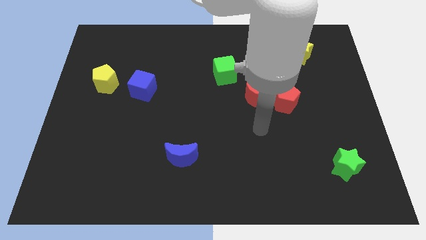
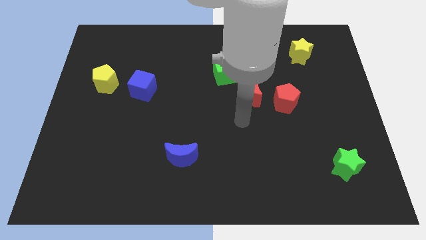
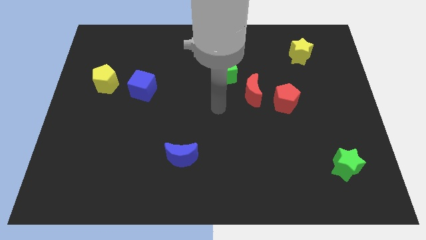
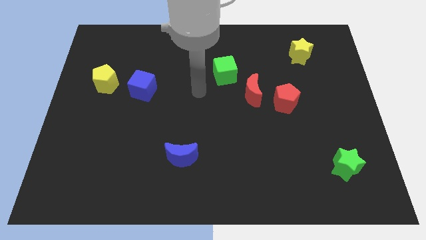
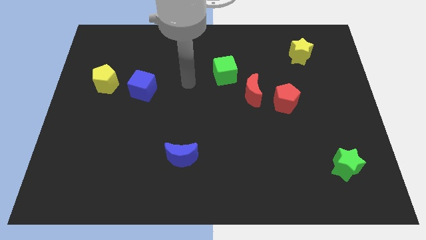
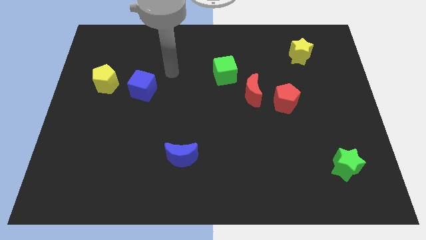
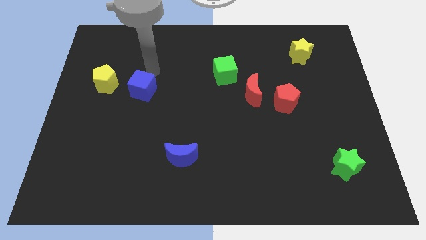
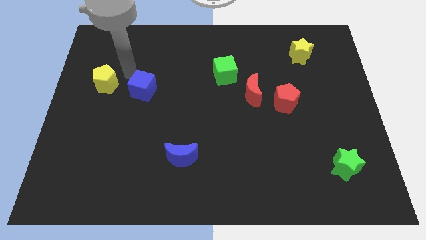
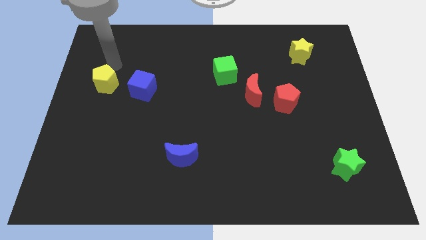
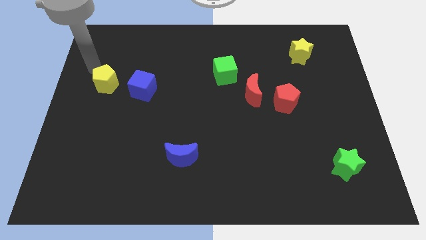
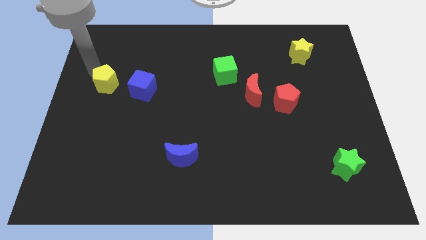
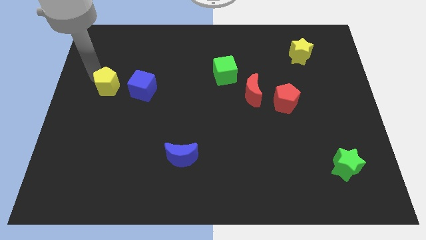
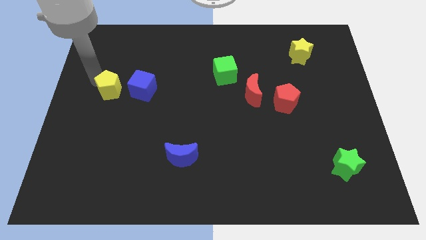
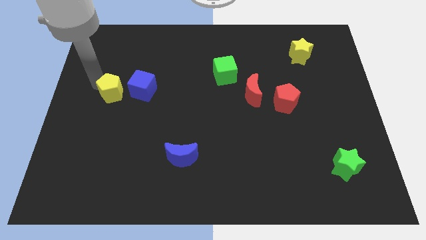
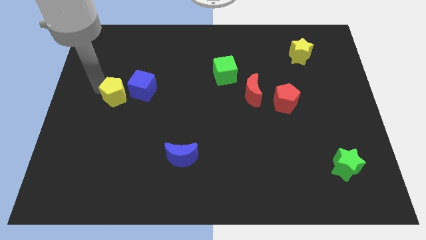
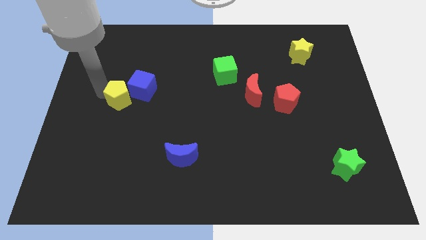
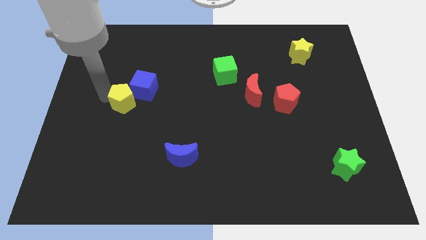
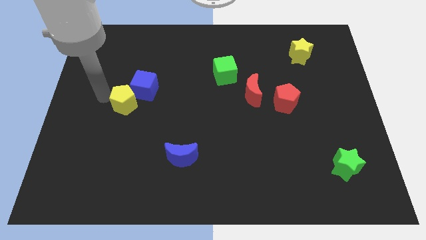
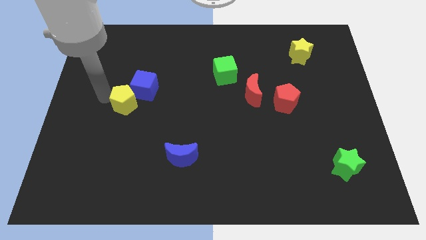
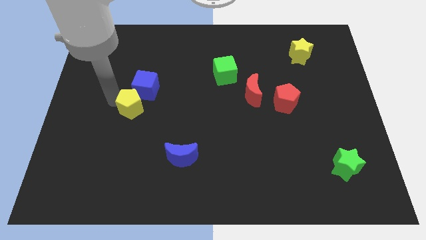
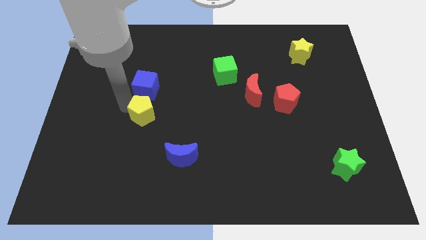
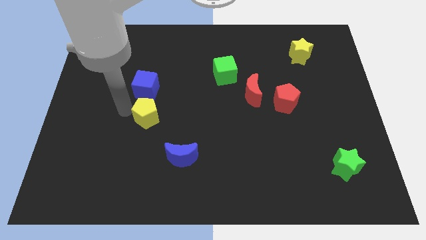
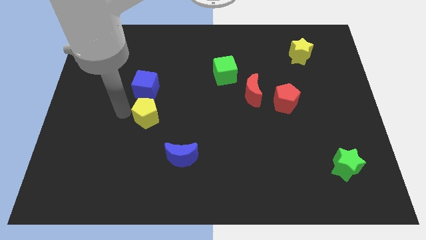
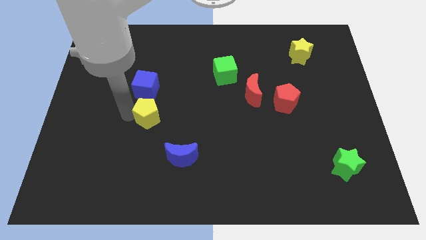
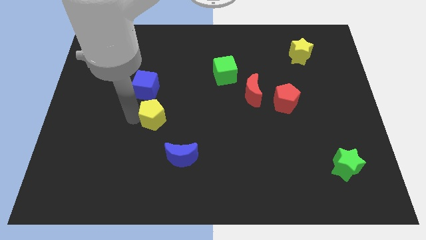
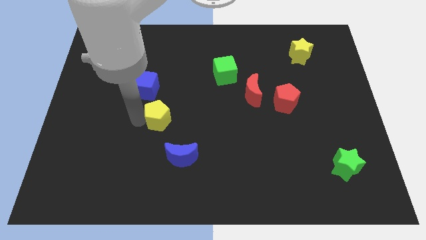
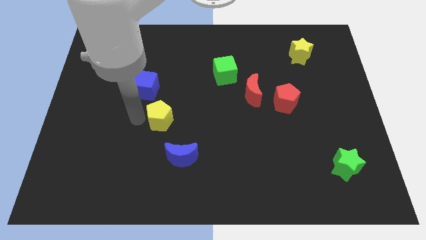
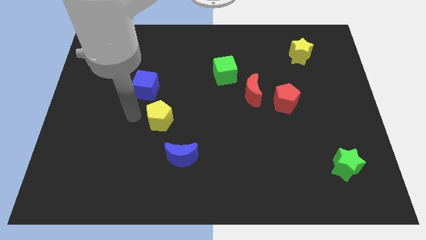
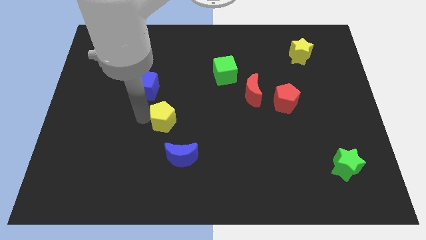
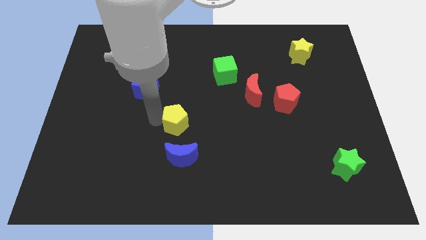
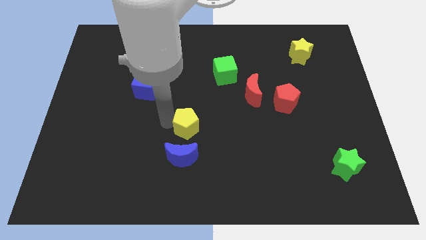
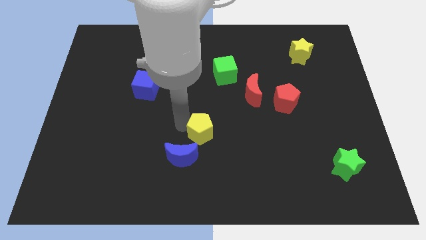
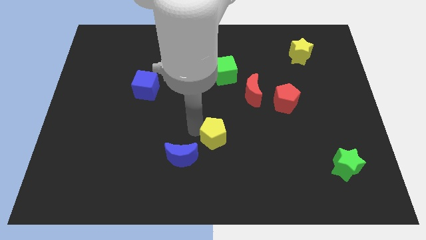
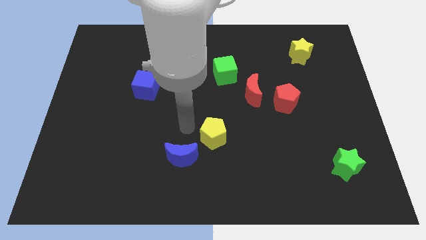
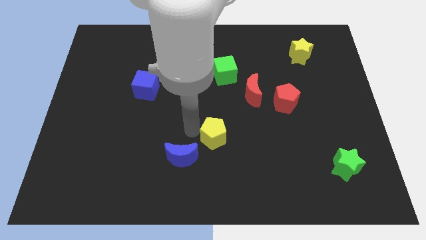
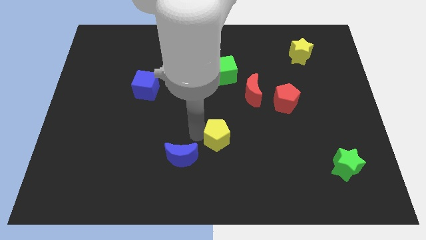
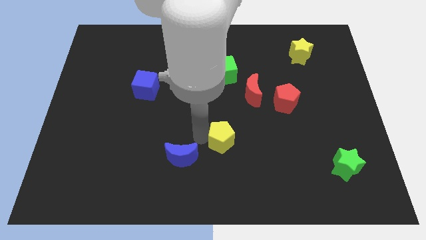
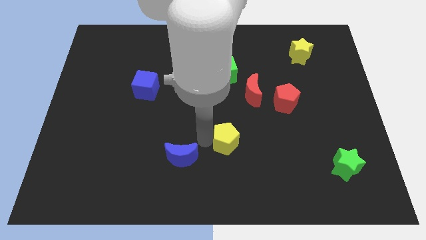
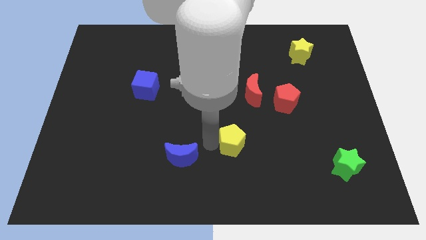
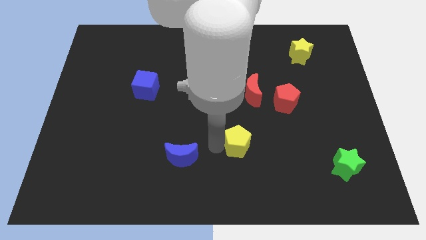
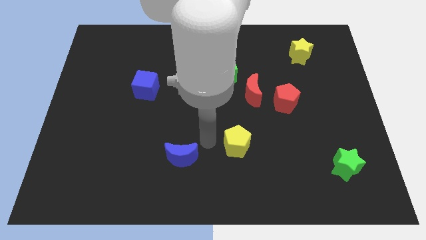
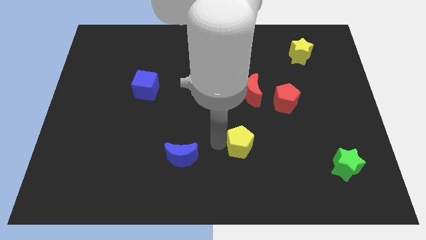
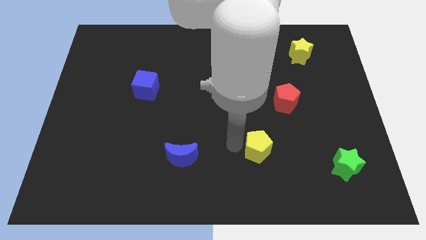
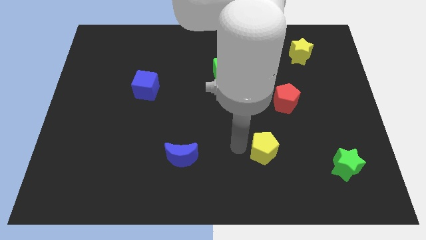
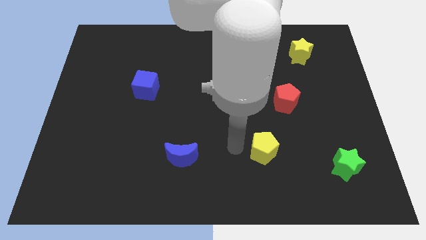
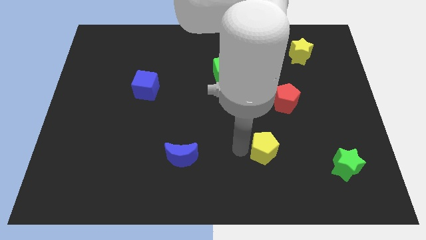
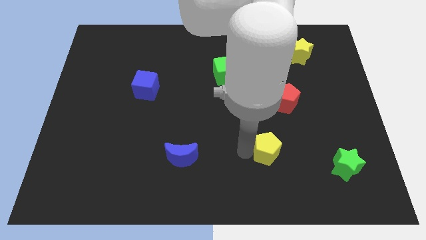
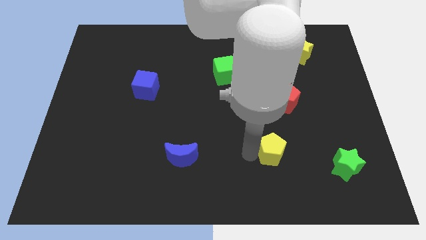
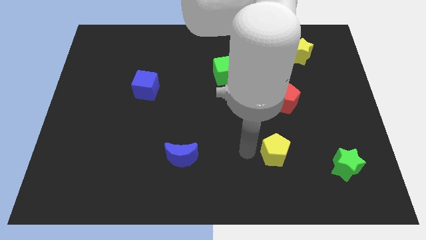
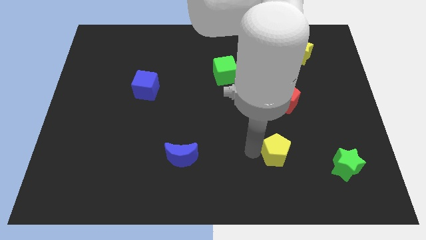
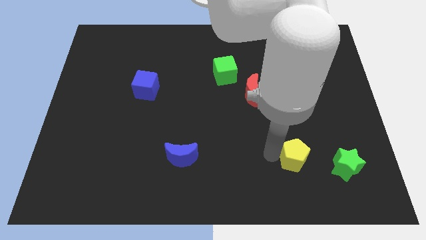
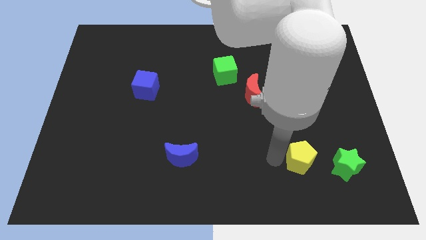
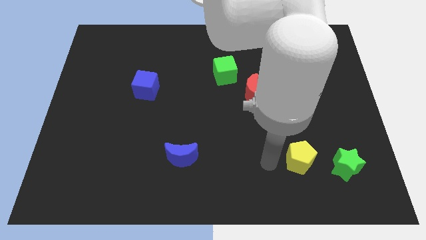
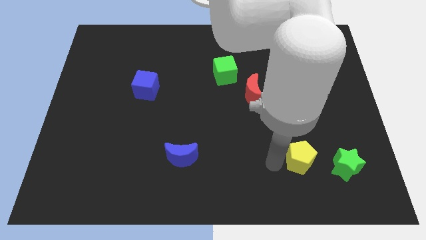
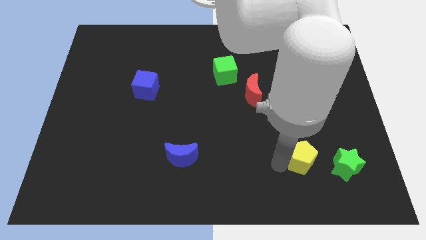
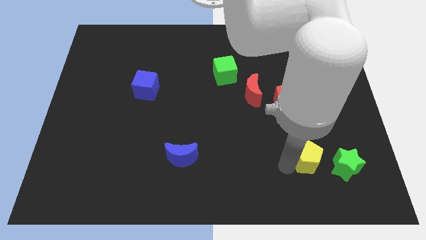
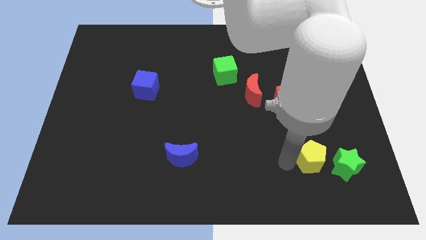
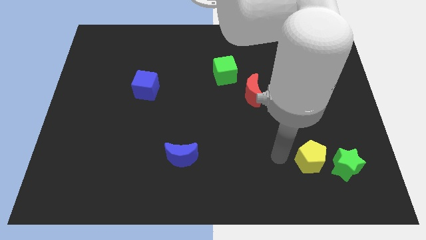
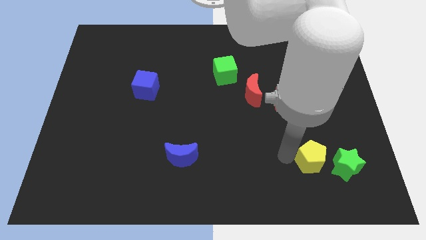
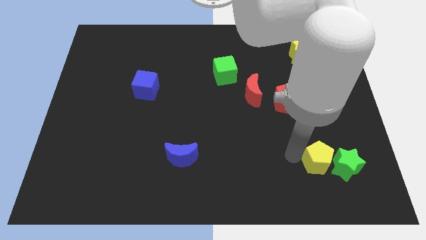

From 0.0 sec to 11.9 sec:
slide the yellow pentagon towards the green star

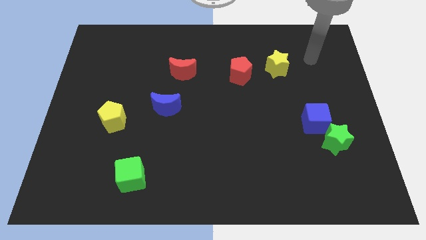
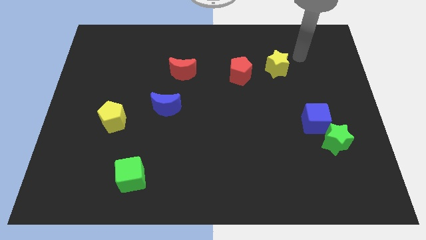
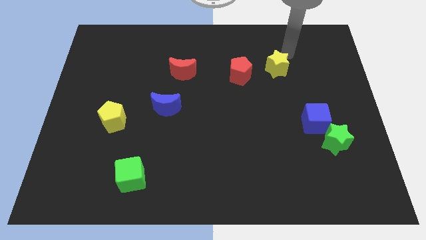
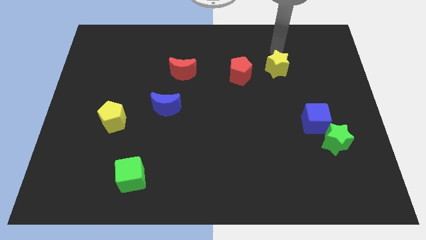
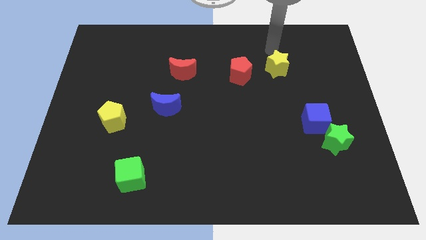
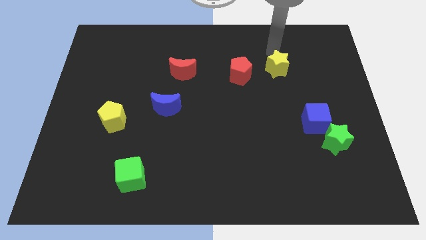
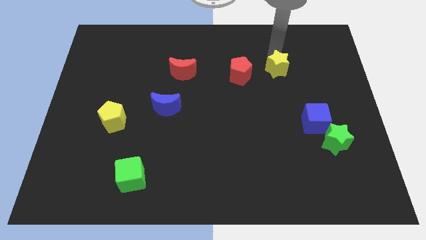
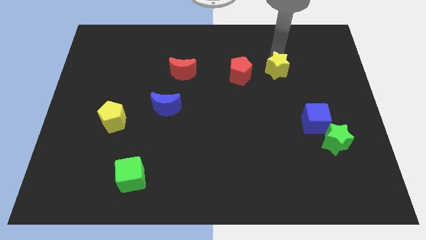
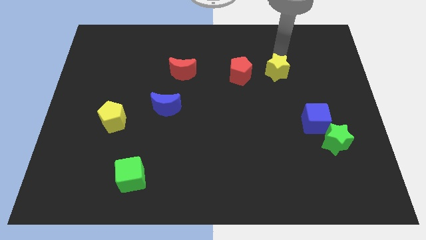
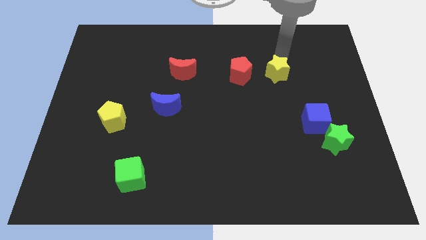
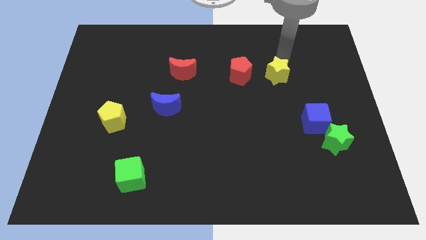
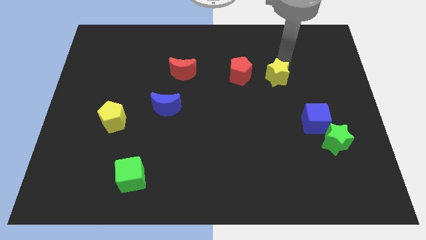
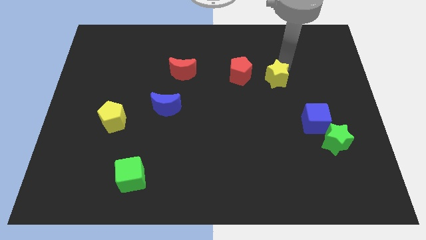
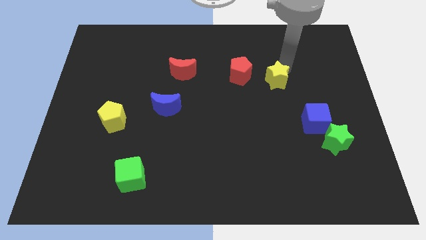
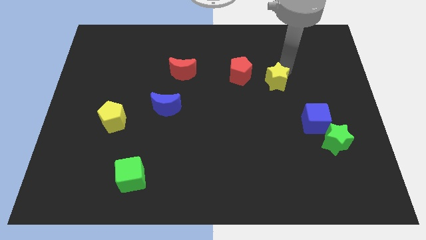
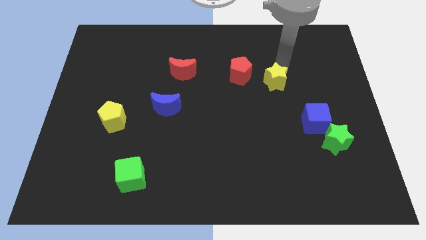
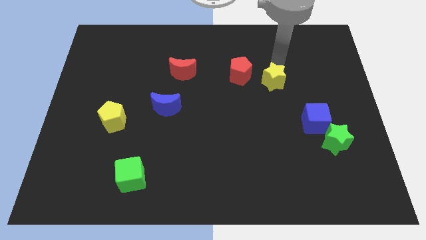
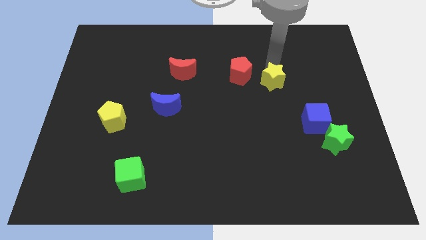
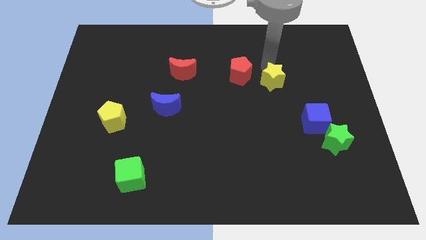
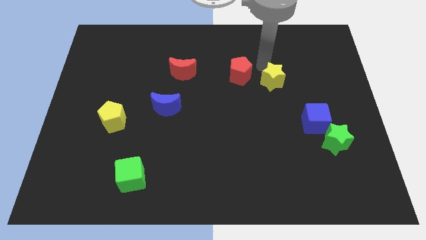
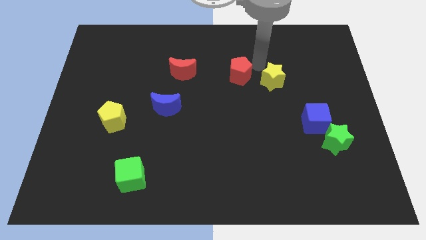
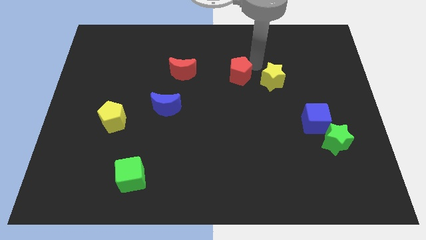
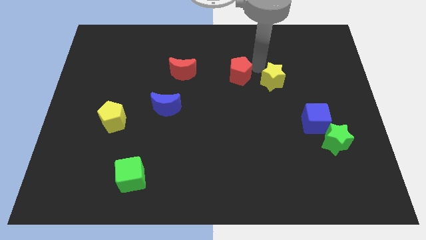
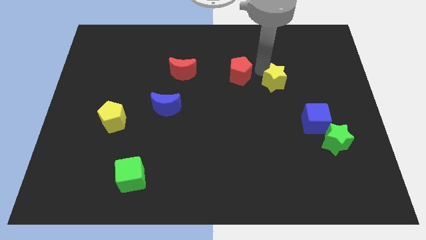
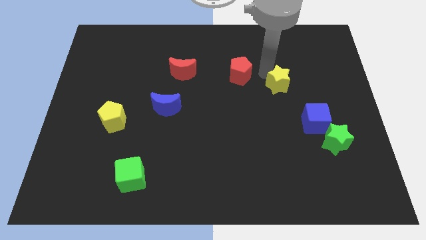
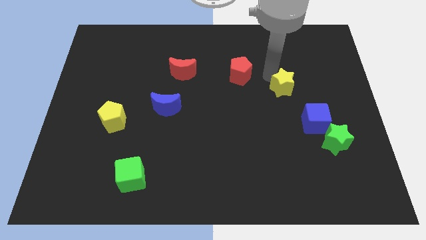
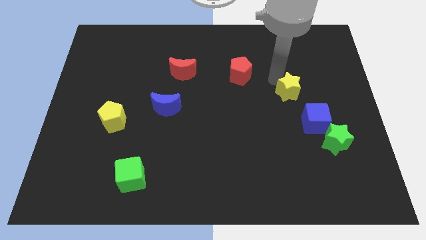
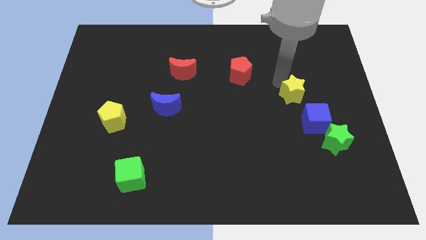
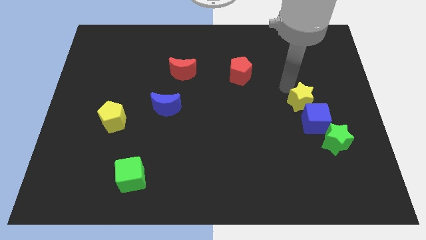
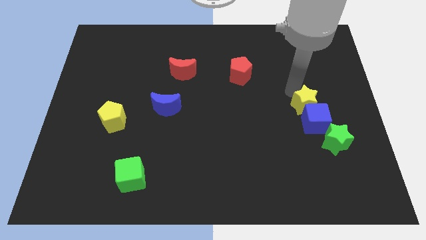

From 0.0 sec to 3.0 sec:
move the yellow star close to the blue cube
